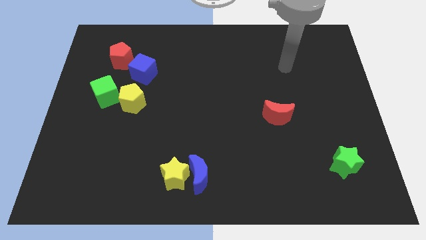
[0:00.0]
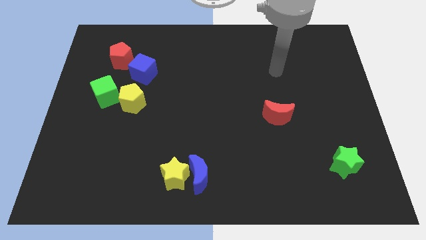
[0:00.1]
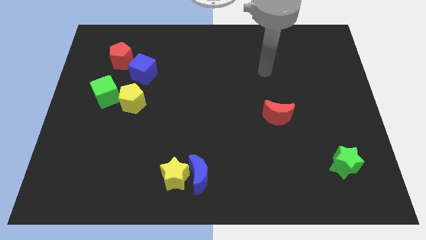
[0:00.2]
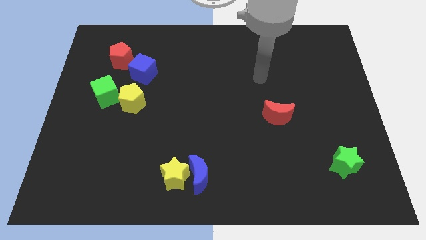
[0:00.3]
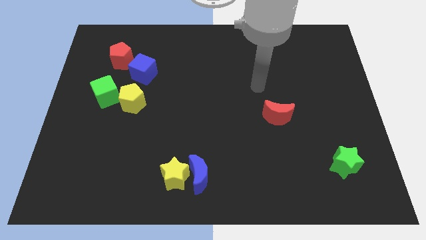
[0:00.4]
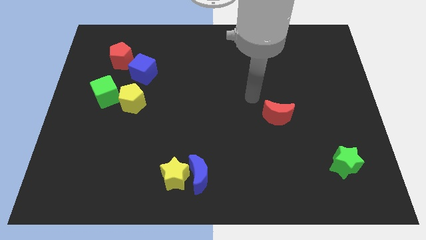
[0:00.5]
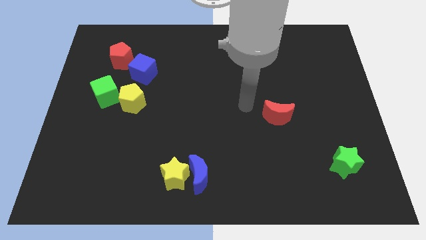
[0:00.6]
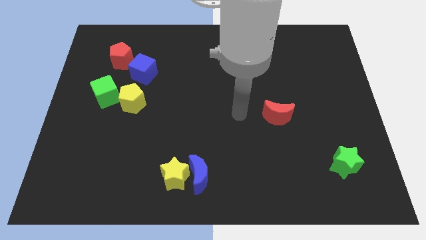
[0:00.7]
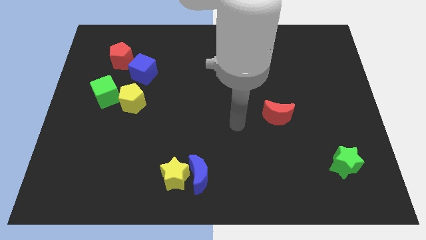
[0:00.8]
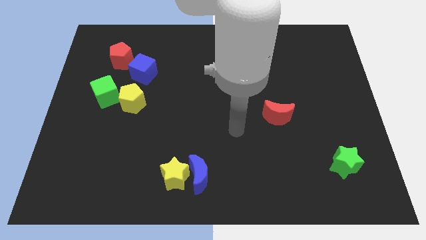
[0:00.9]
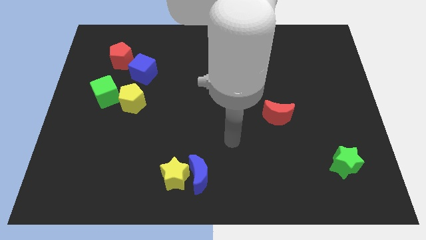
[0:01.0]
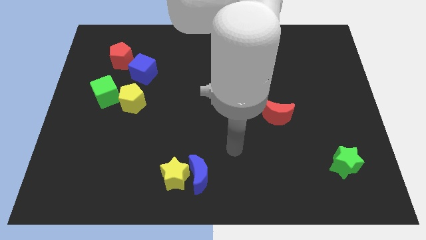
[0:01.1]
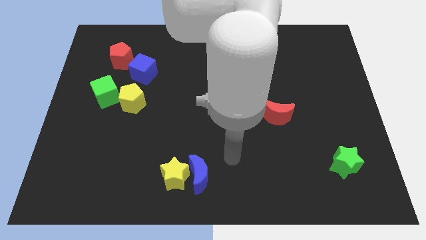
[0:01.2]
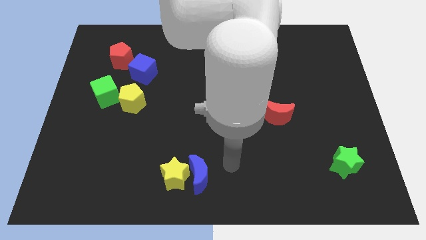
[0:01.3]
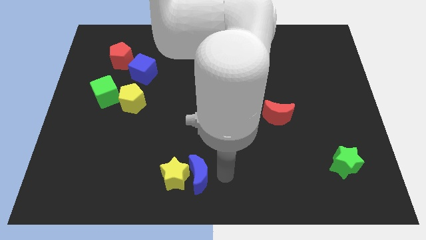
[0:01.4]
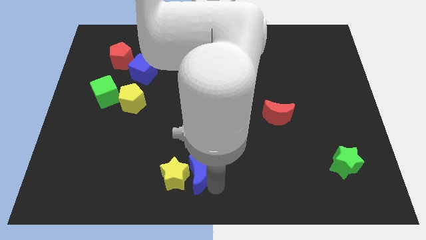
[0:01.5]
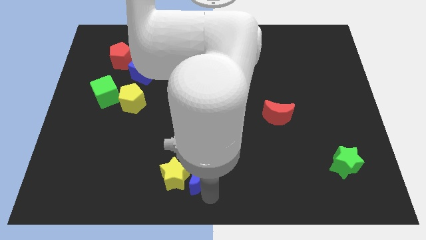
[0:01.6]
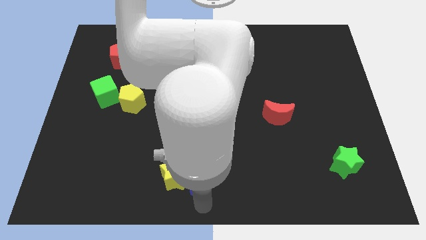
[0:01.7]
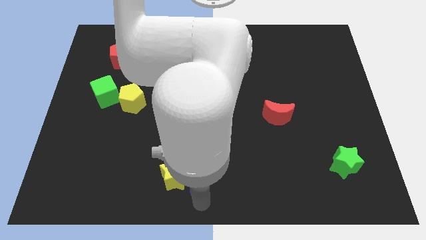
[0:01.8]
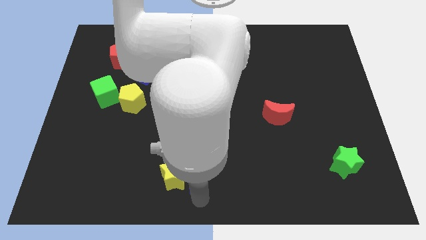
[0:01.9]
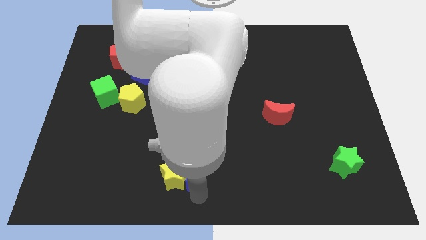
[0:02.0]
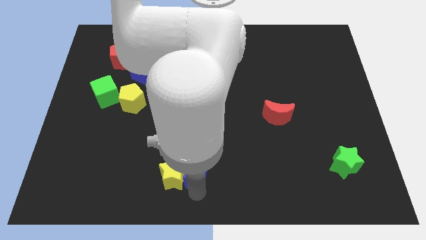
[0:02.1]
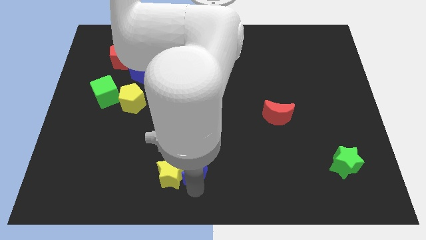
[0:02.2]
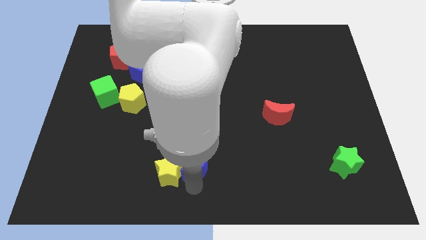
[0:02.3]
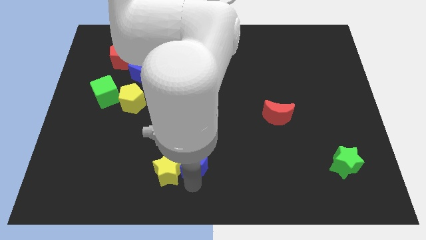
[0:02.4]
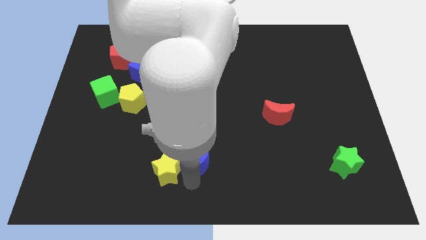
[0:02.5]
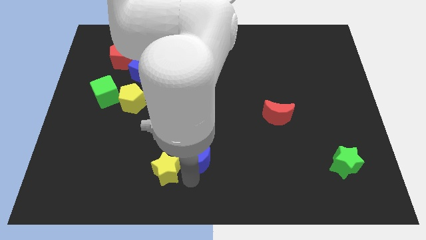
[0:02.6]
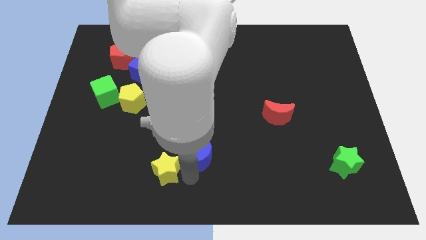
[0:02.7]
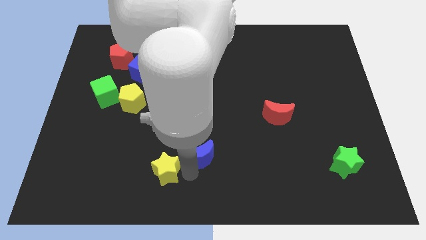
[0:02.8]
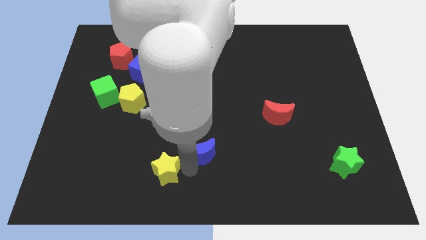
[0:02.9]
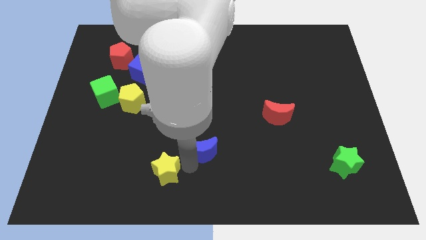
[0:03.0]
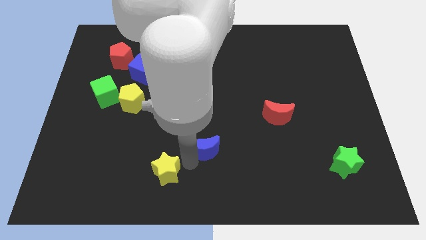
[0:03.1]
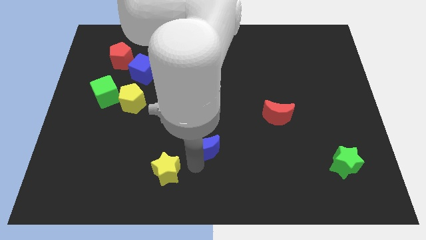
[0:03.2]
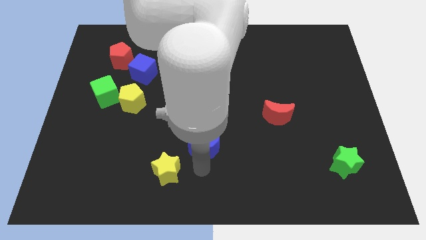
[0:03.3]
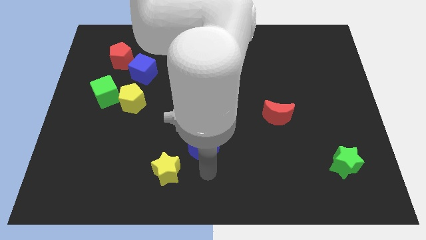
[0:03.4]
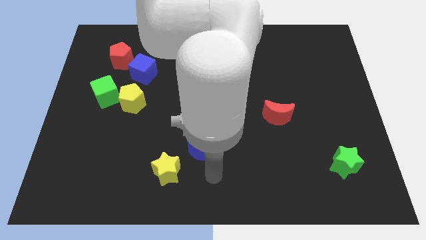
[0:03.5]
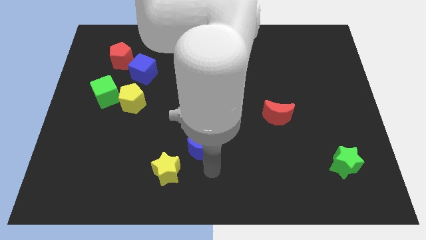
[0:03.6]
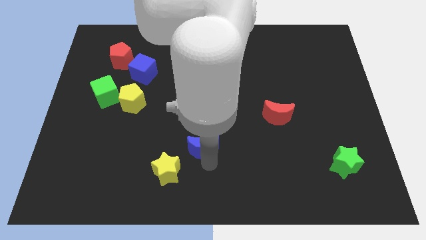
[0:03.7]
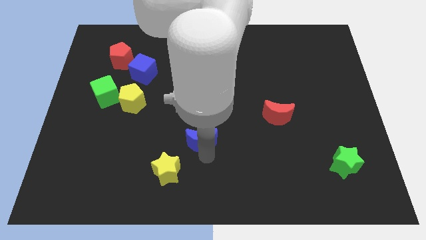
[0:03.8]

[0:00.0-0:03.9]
slightly slide the blue moon upwards

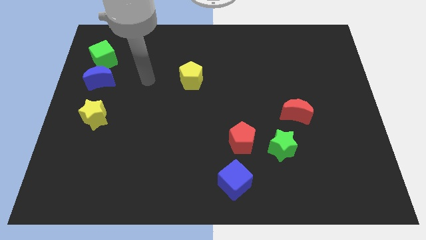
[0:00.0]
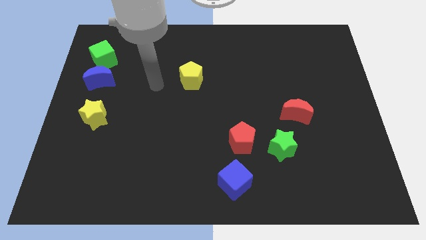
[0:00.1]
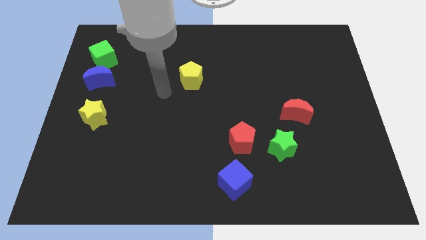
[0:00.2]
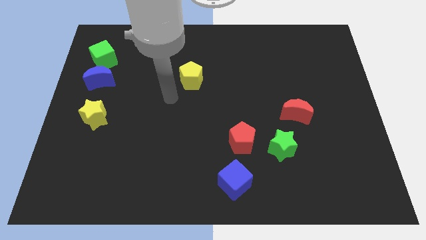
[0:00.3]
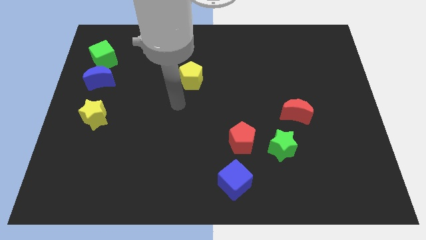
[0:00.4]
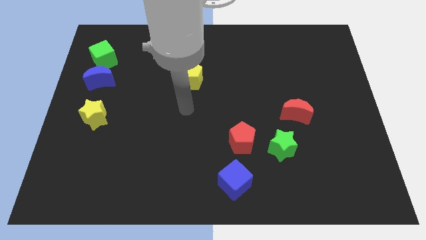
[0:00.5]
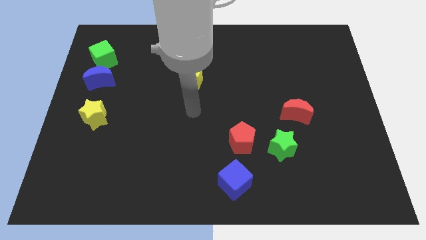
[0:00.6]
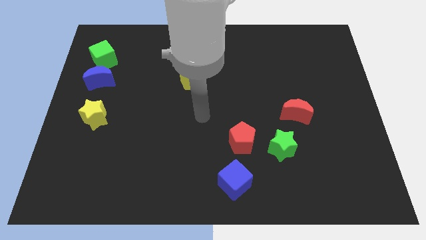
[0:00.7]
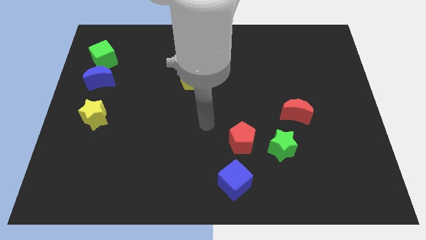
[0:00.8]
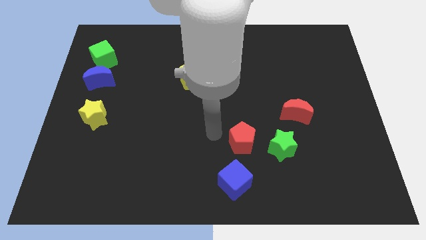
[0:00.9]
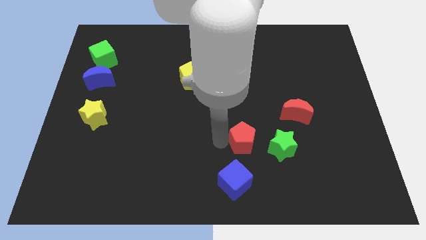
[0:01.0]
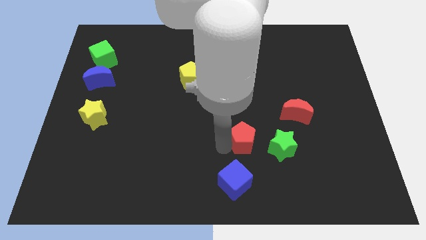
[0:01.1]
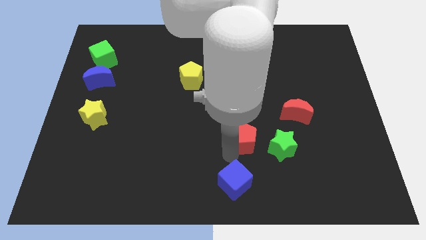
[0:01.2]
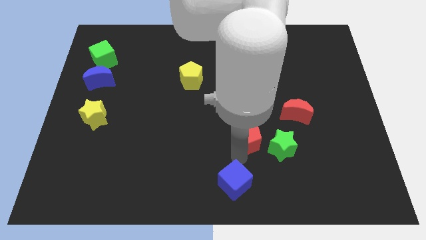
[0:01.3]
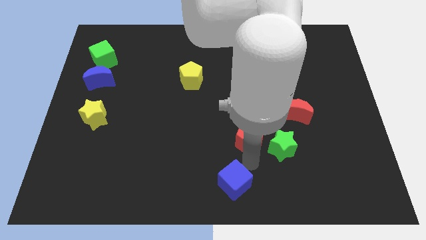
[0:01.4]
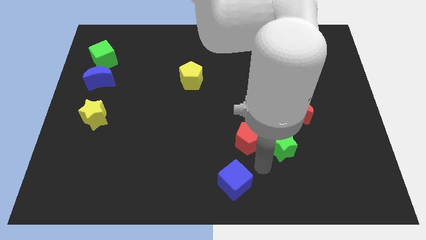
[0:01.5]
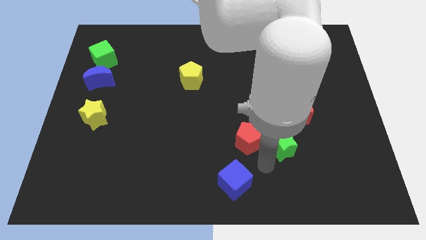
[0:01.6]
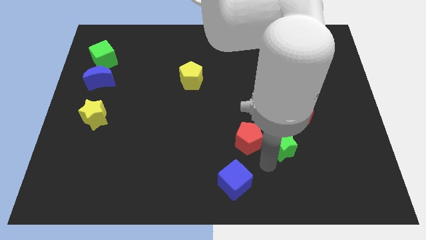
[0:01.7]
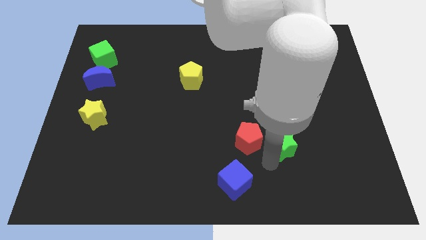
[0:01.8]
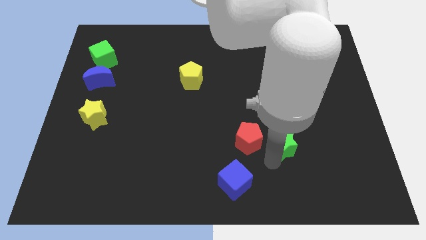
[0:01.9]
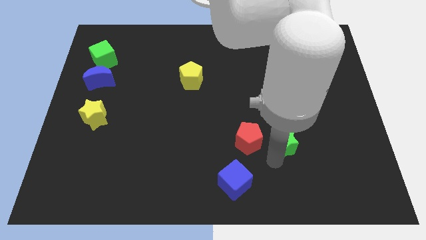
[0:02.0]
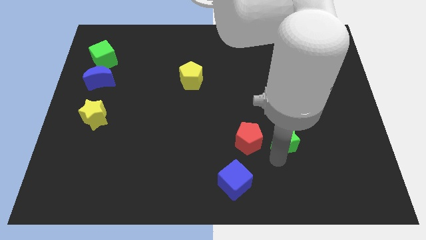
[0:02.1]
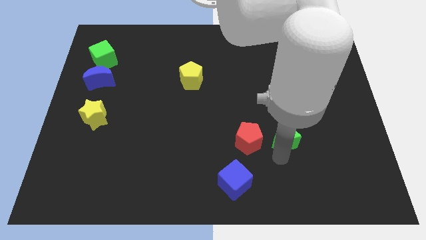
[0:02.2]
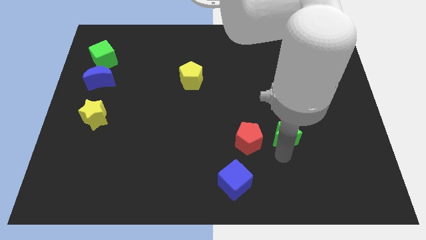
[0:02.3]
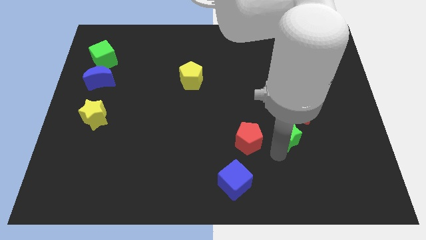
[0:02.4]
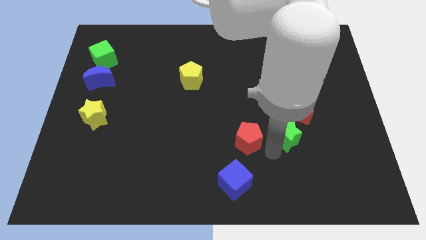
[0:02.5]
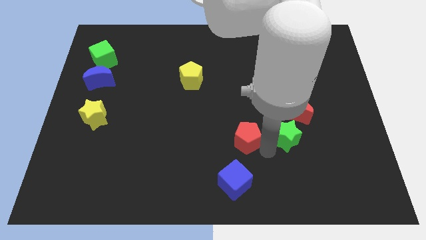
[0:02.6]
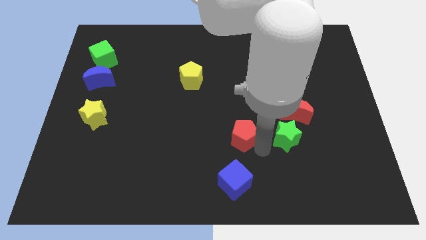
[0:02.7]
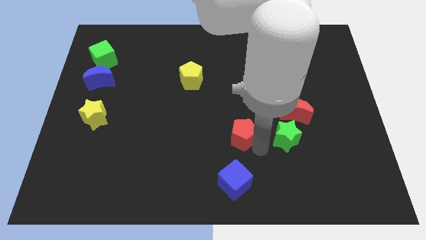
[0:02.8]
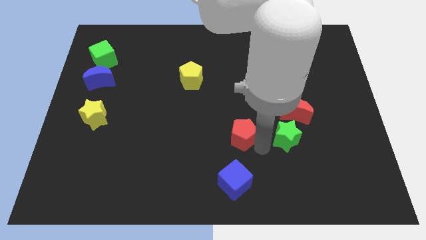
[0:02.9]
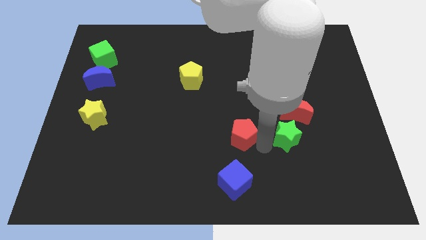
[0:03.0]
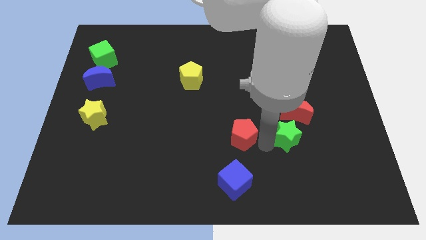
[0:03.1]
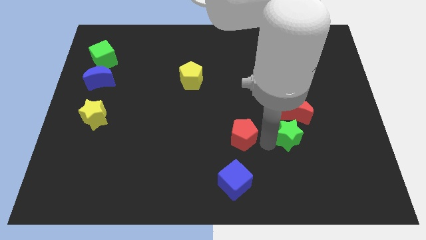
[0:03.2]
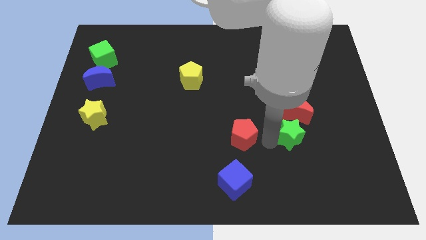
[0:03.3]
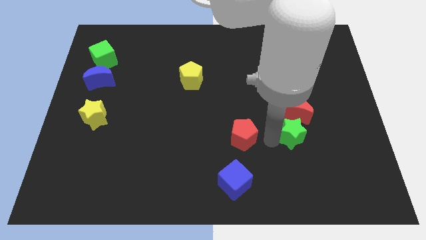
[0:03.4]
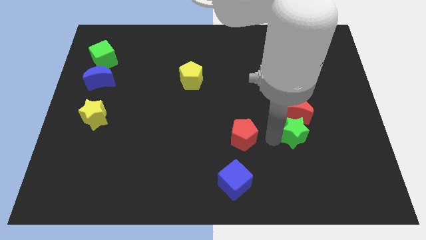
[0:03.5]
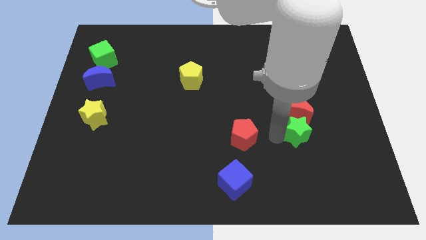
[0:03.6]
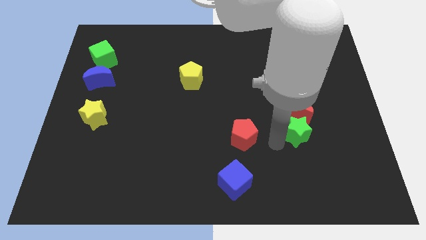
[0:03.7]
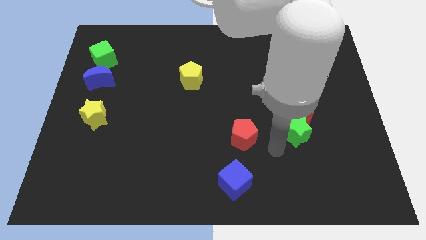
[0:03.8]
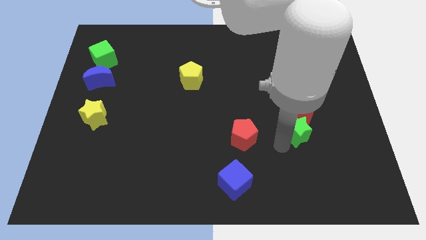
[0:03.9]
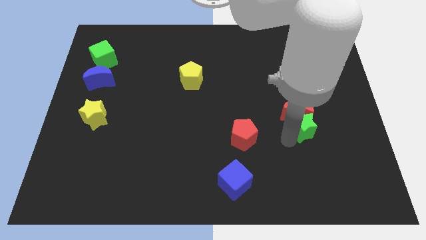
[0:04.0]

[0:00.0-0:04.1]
slide the green star somewhat upwards and then right

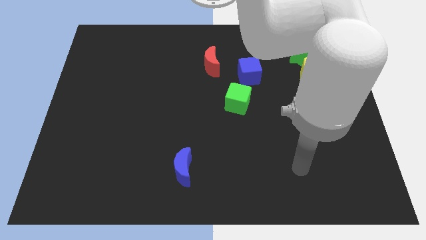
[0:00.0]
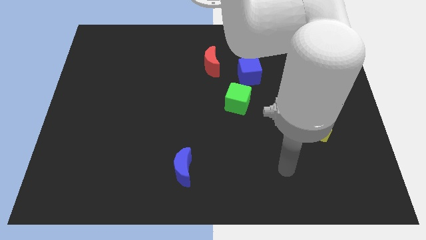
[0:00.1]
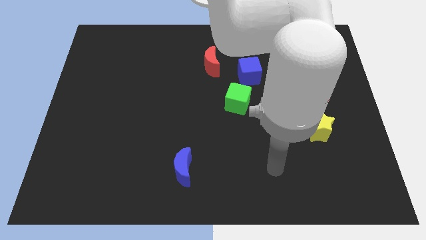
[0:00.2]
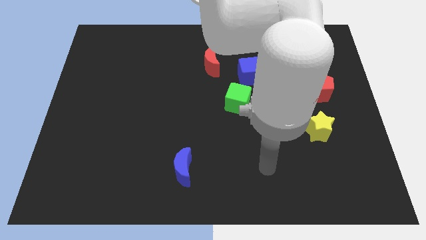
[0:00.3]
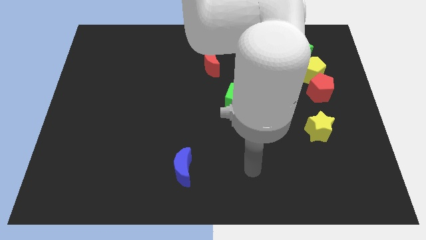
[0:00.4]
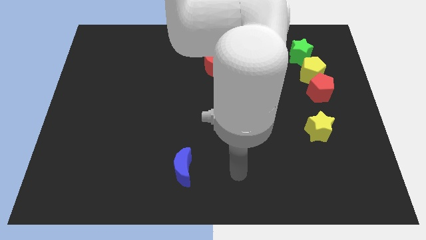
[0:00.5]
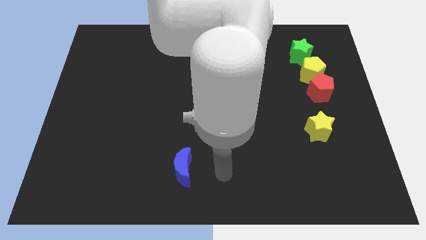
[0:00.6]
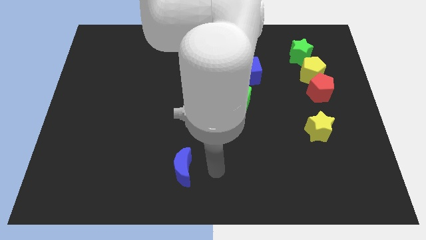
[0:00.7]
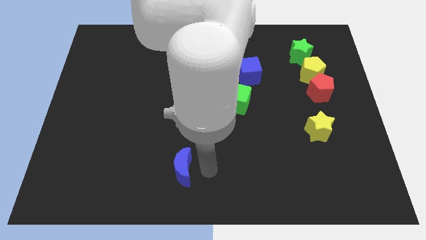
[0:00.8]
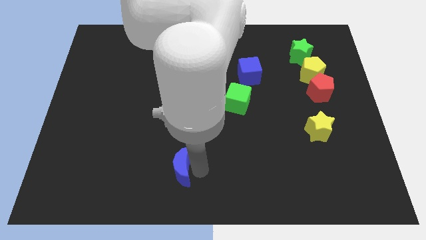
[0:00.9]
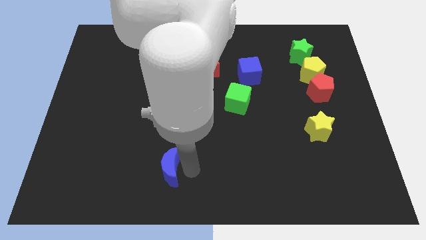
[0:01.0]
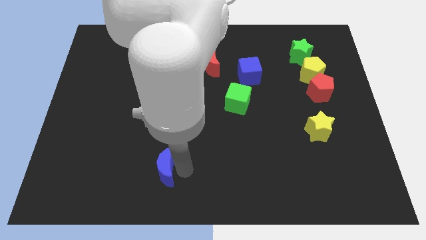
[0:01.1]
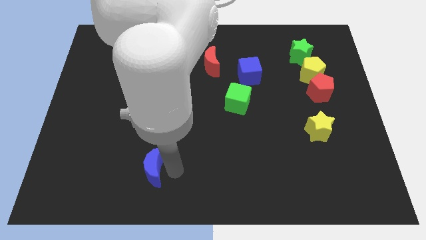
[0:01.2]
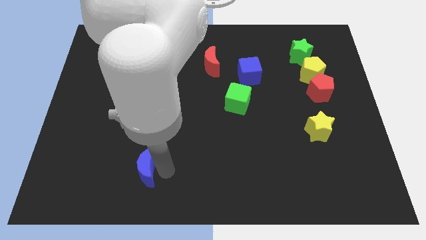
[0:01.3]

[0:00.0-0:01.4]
slide the blue moon a little left
